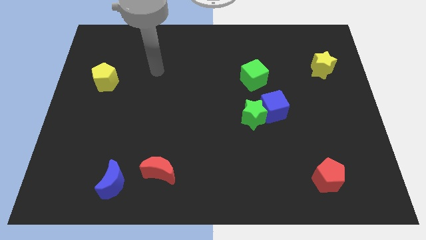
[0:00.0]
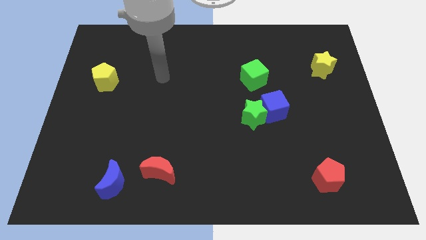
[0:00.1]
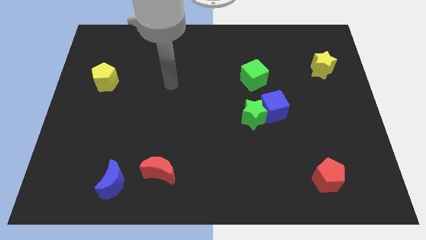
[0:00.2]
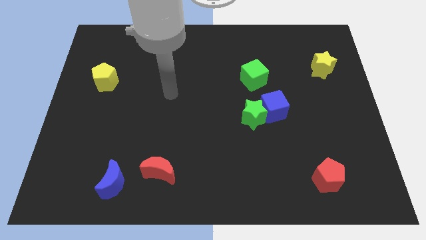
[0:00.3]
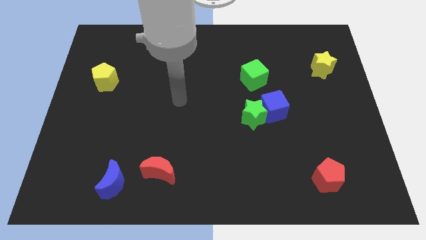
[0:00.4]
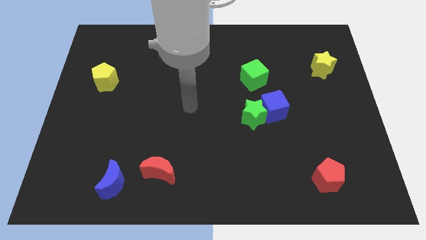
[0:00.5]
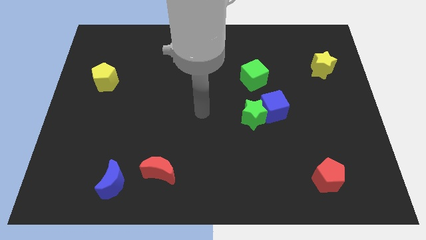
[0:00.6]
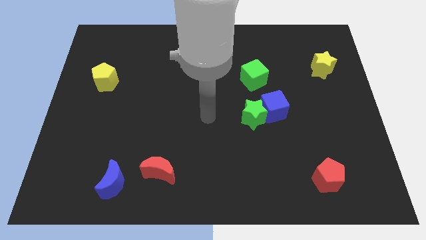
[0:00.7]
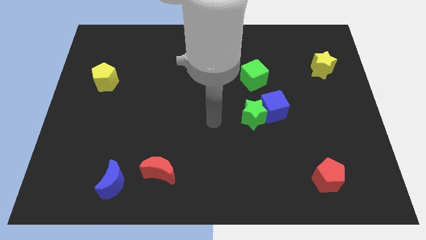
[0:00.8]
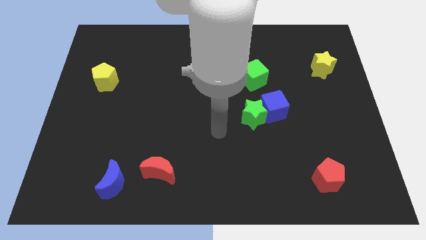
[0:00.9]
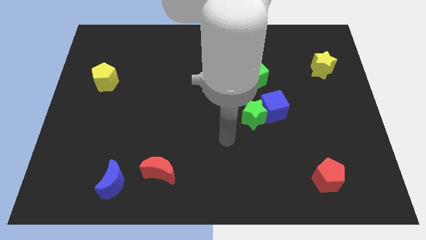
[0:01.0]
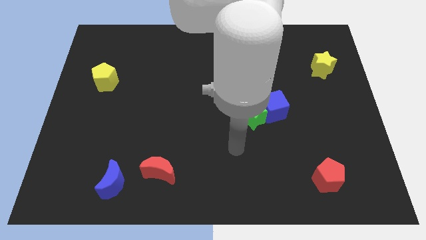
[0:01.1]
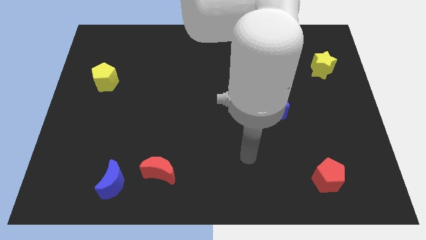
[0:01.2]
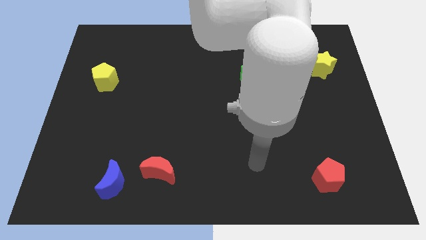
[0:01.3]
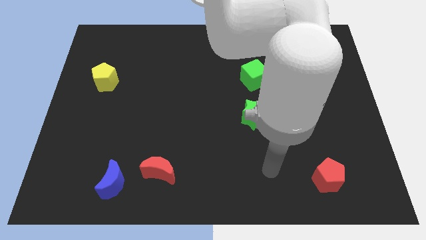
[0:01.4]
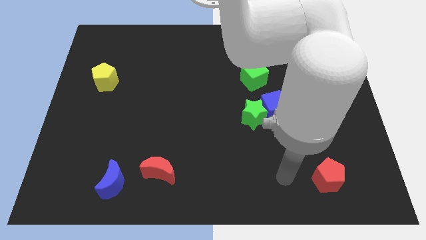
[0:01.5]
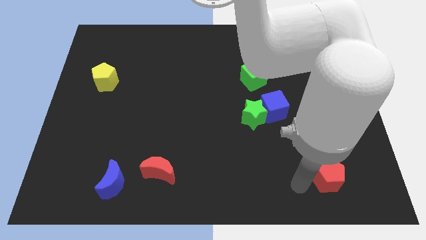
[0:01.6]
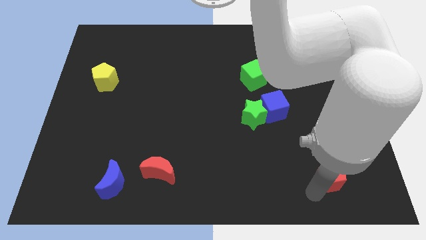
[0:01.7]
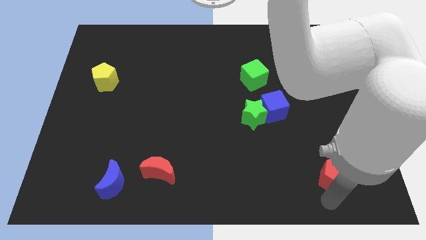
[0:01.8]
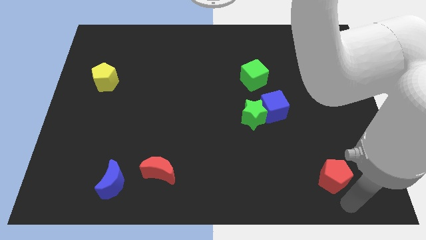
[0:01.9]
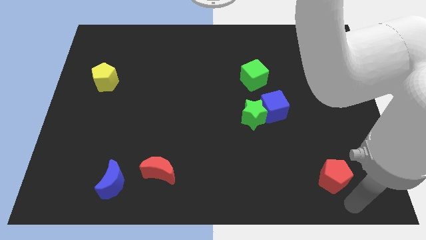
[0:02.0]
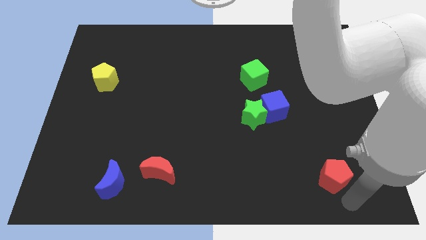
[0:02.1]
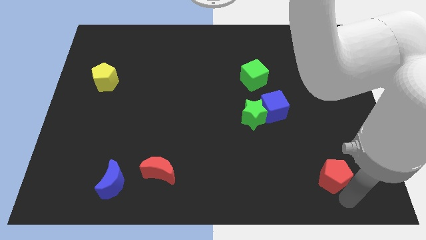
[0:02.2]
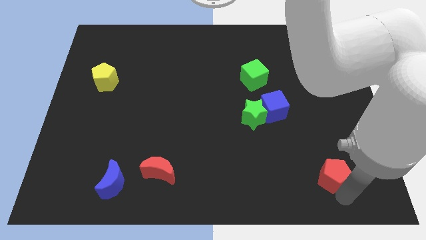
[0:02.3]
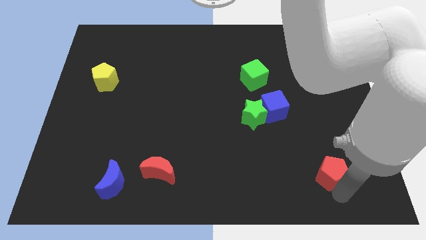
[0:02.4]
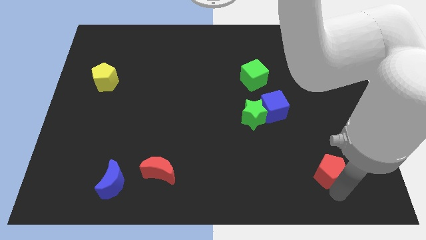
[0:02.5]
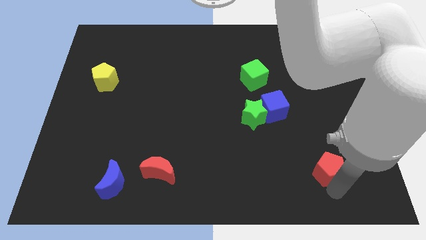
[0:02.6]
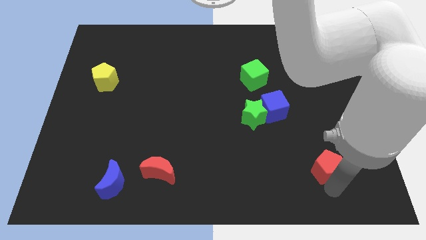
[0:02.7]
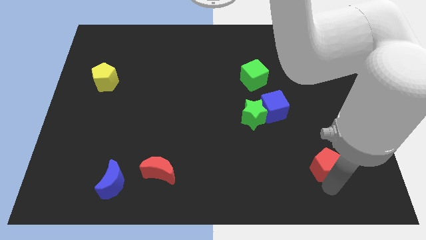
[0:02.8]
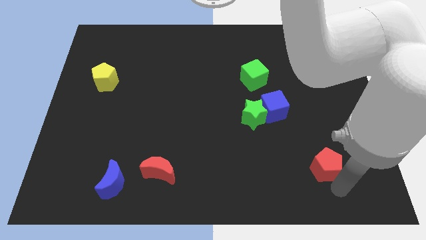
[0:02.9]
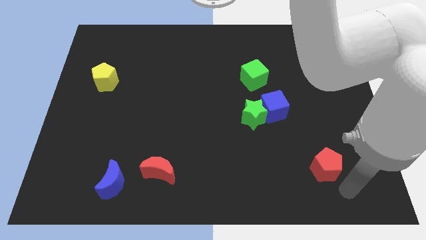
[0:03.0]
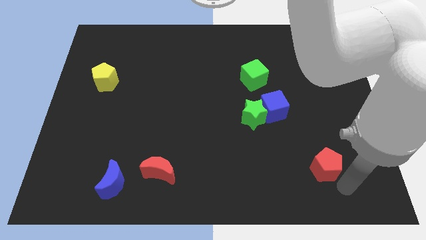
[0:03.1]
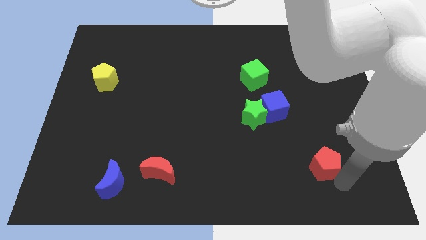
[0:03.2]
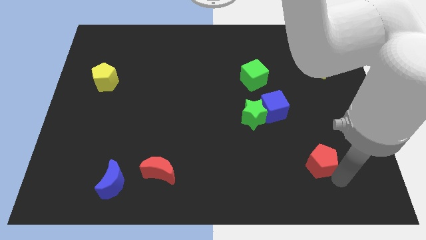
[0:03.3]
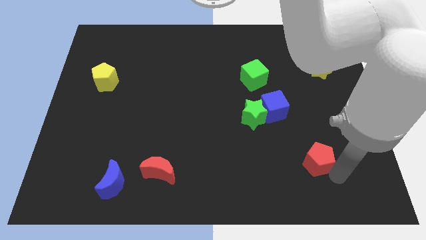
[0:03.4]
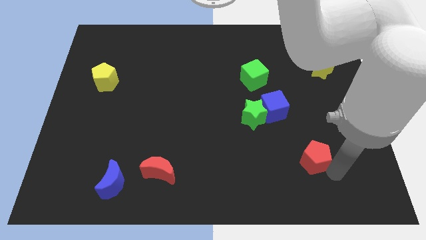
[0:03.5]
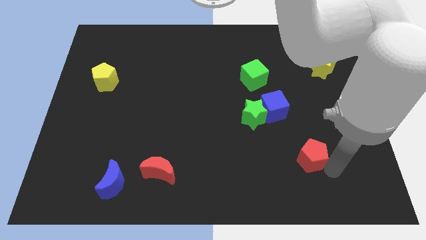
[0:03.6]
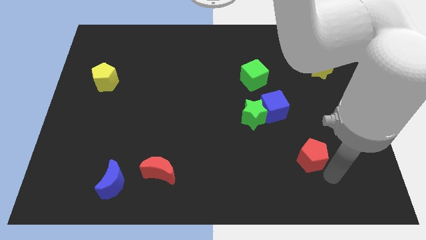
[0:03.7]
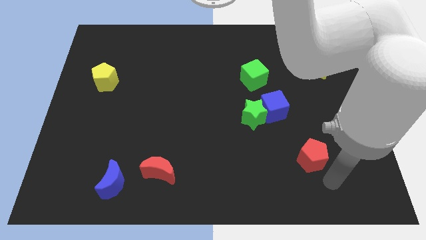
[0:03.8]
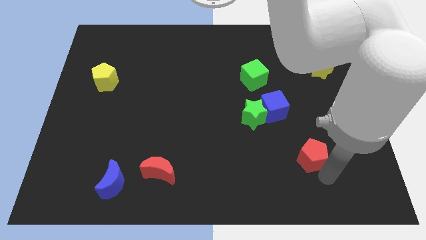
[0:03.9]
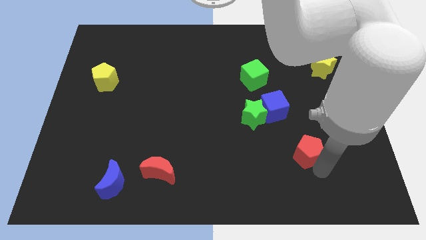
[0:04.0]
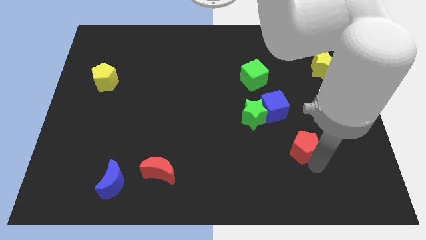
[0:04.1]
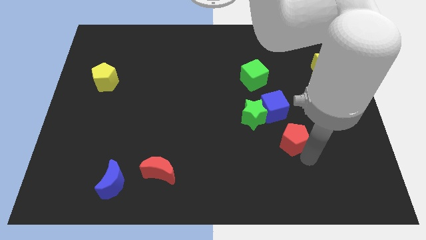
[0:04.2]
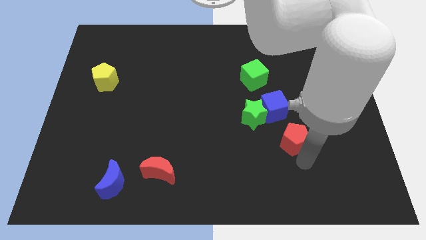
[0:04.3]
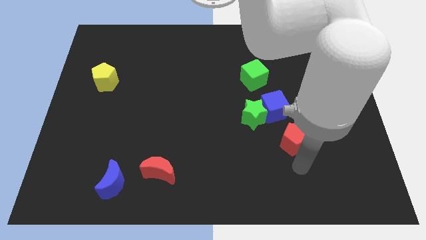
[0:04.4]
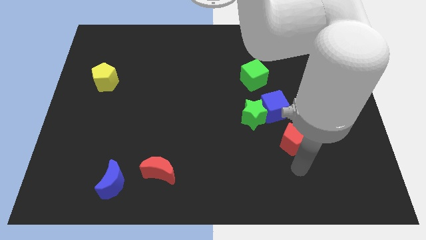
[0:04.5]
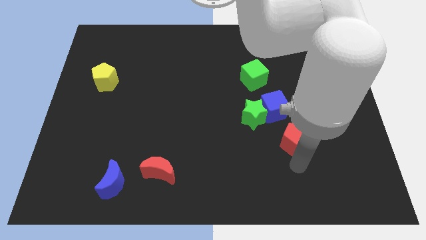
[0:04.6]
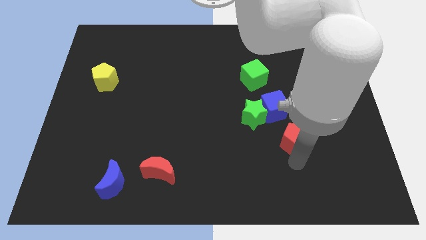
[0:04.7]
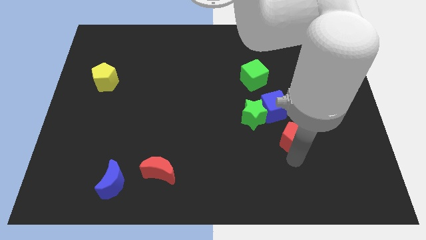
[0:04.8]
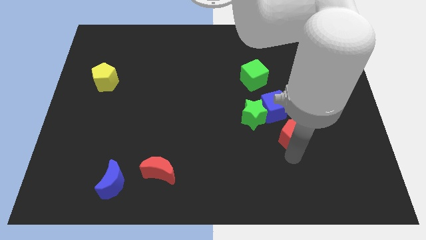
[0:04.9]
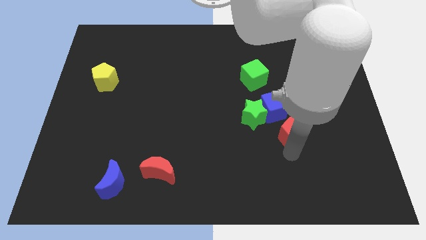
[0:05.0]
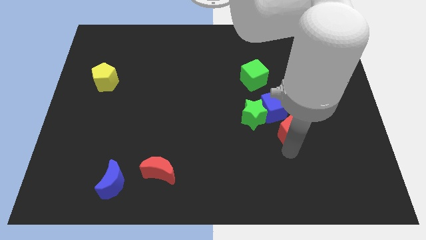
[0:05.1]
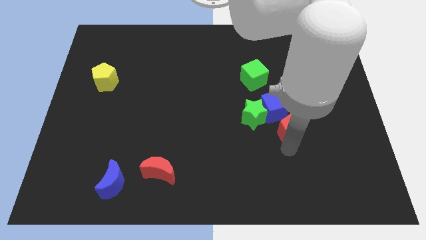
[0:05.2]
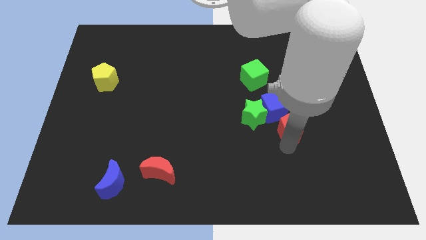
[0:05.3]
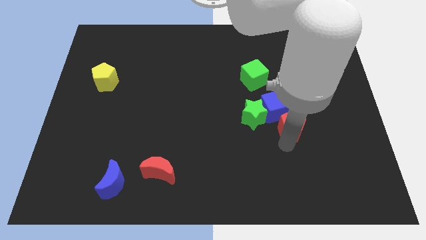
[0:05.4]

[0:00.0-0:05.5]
move the red pentagon towards the blue cube
